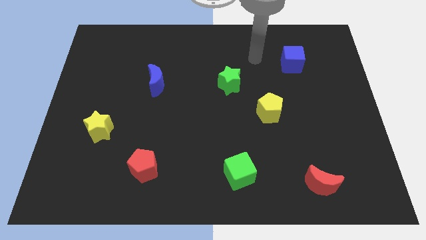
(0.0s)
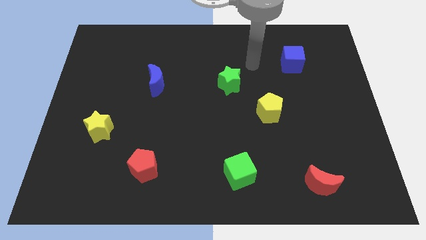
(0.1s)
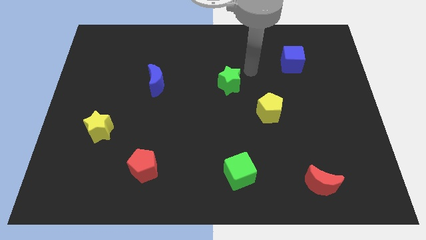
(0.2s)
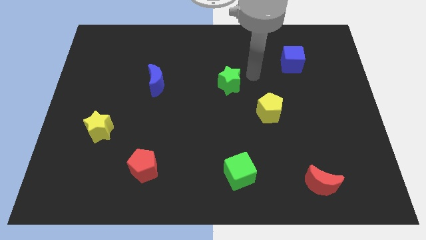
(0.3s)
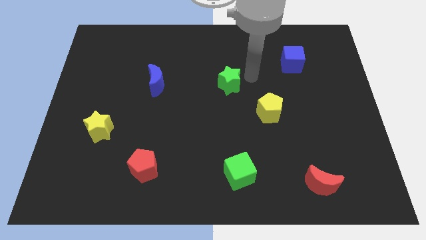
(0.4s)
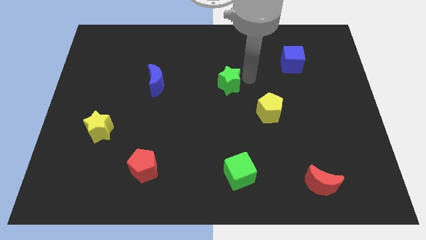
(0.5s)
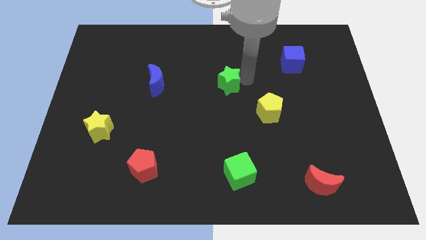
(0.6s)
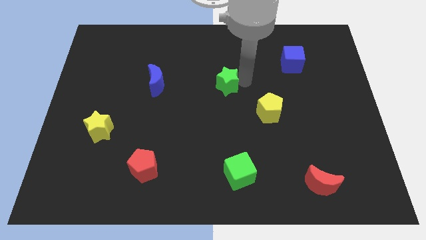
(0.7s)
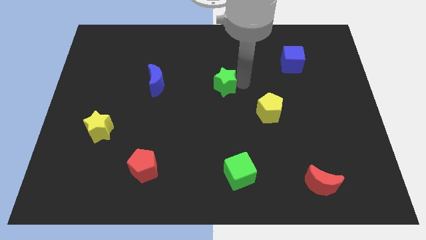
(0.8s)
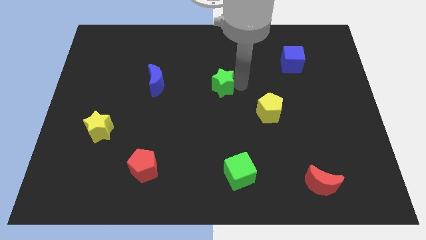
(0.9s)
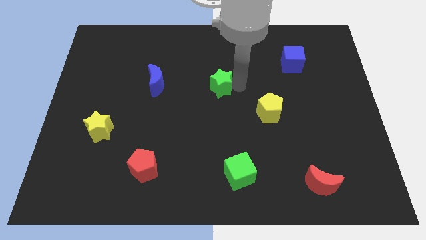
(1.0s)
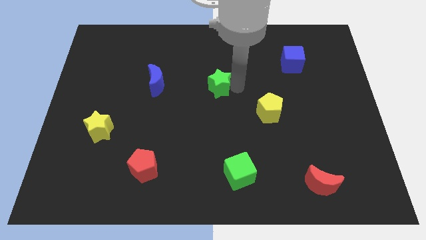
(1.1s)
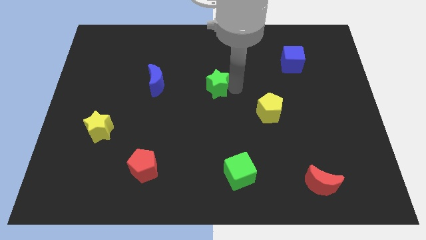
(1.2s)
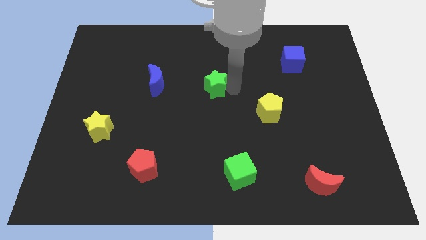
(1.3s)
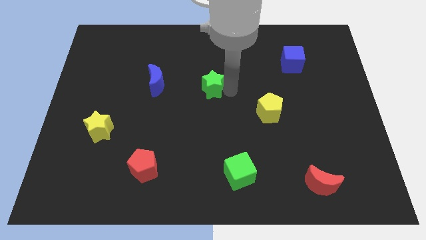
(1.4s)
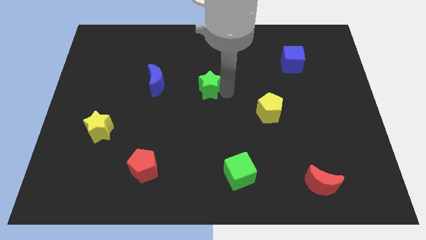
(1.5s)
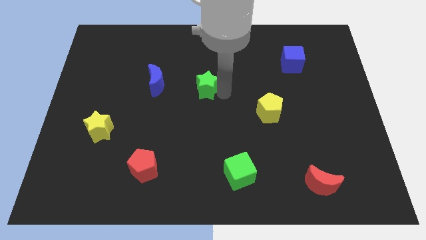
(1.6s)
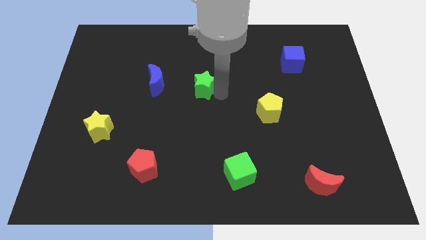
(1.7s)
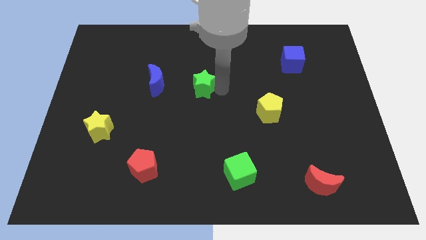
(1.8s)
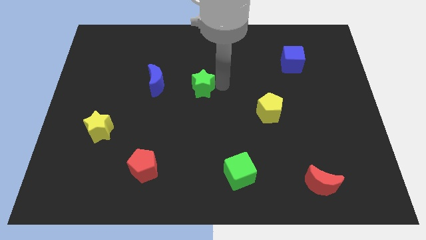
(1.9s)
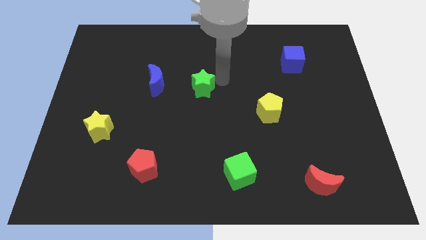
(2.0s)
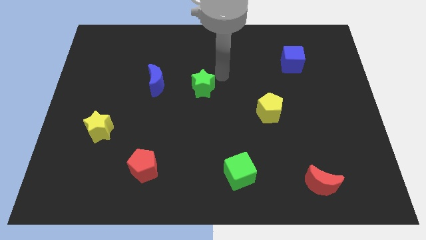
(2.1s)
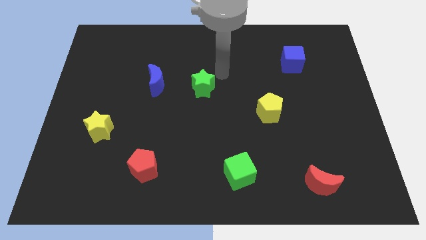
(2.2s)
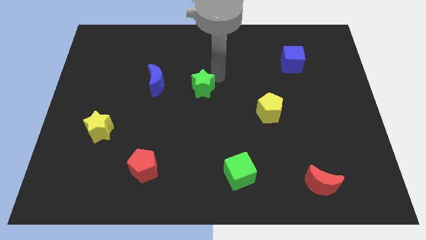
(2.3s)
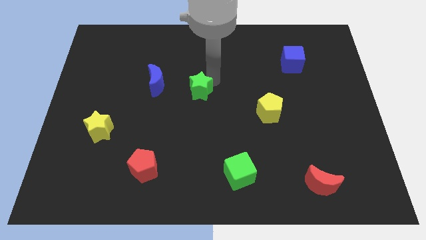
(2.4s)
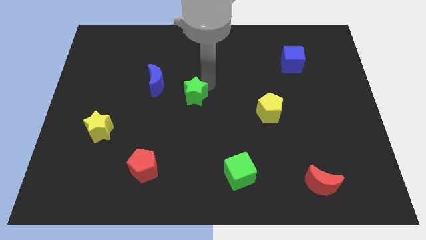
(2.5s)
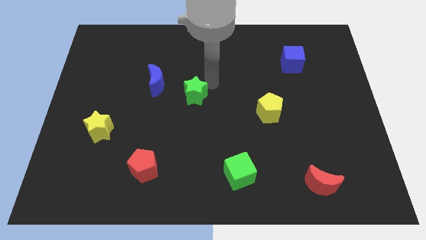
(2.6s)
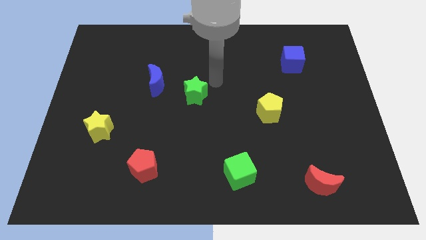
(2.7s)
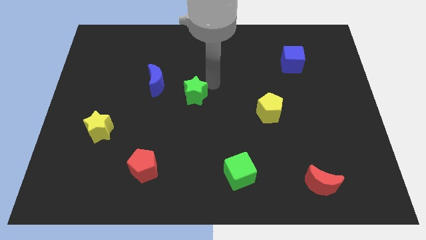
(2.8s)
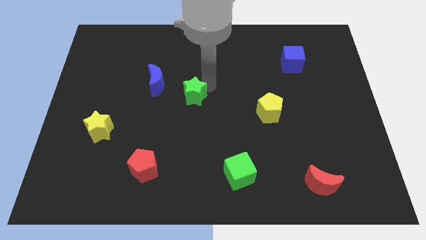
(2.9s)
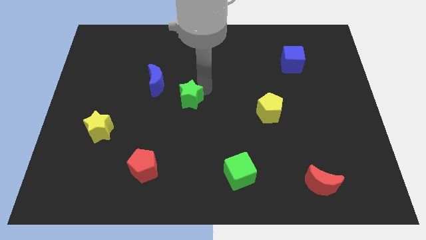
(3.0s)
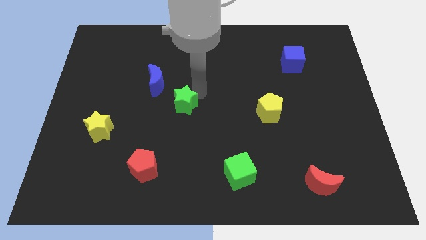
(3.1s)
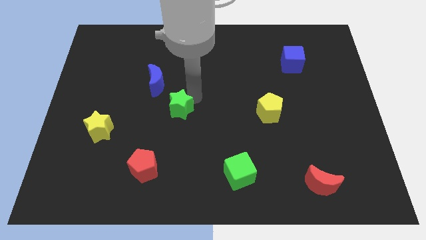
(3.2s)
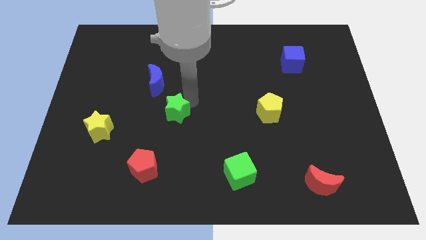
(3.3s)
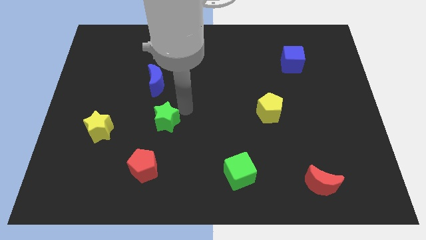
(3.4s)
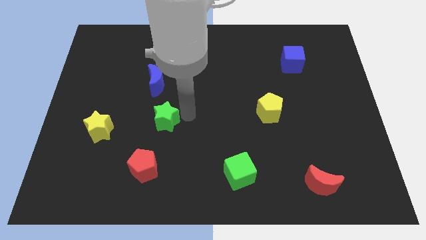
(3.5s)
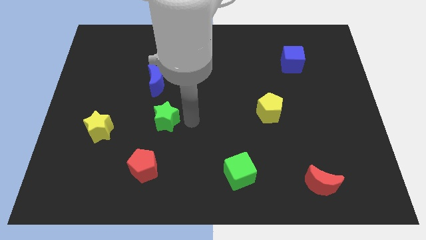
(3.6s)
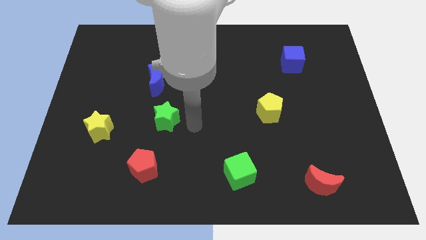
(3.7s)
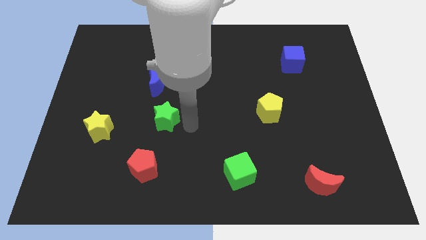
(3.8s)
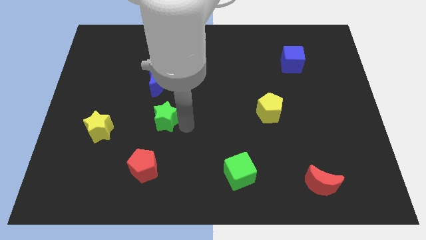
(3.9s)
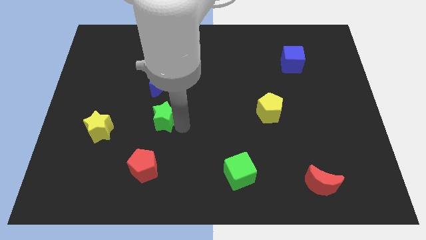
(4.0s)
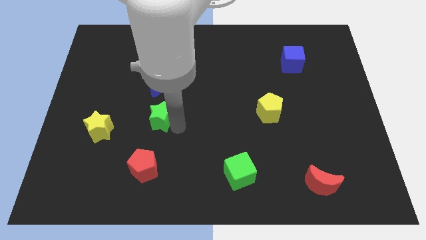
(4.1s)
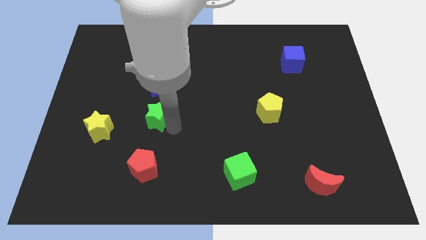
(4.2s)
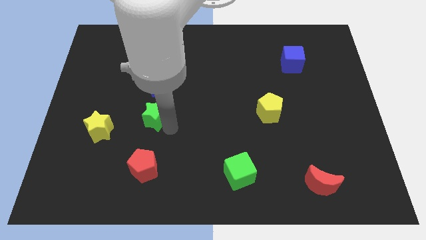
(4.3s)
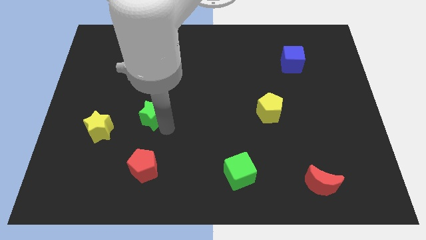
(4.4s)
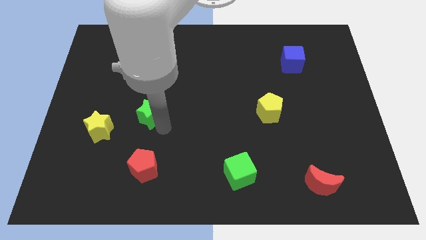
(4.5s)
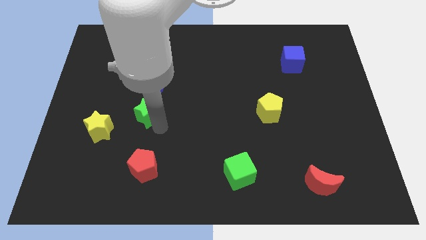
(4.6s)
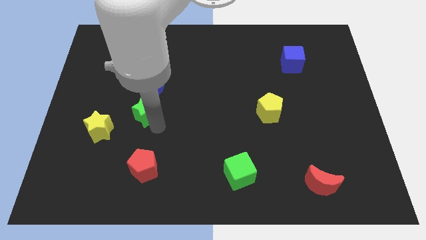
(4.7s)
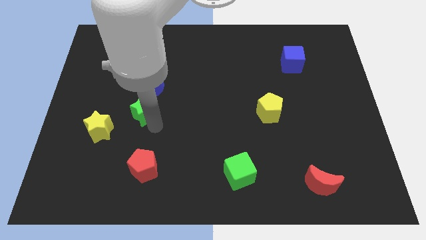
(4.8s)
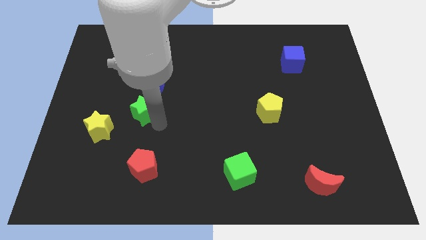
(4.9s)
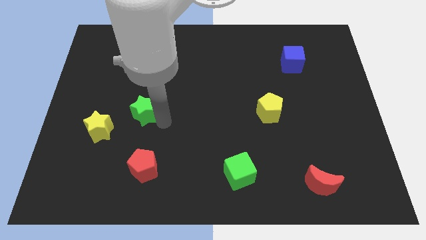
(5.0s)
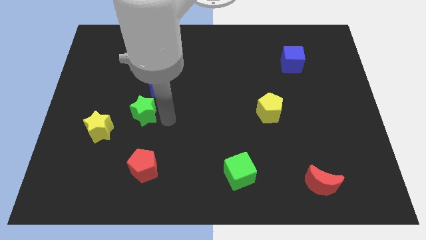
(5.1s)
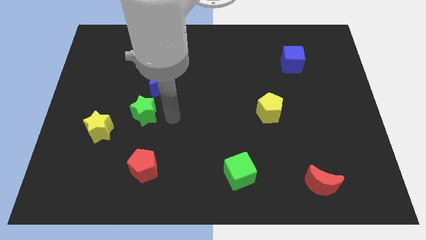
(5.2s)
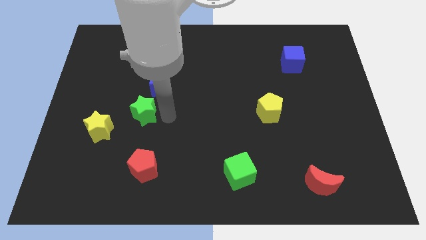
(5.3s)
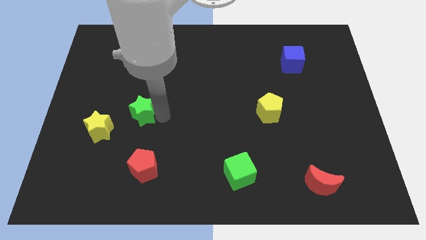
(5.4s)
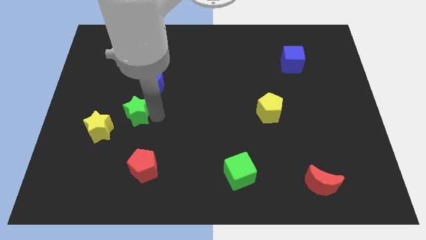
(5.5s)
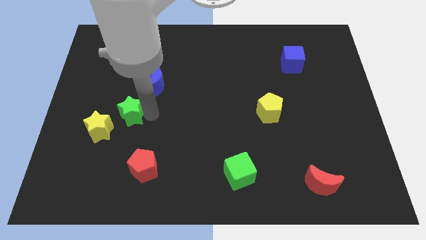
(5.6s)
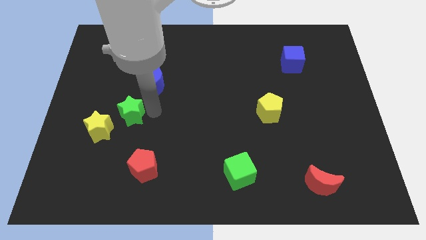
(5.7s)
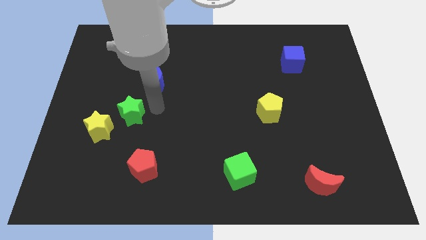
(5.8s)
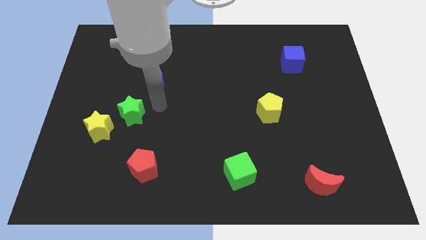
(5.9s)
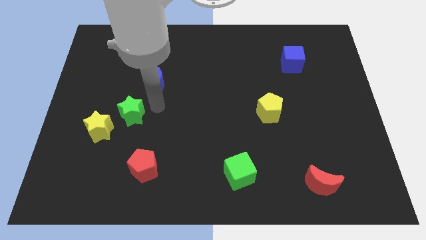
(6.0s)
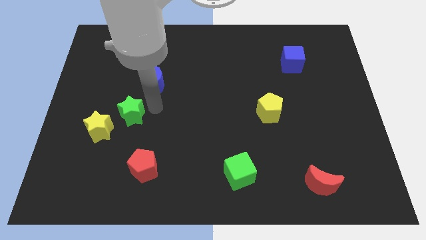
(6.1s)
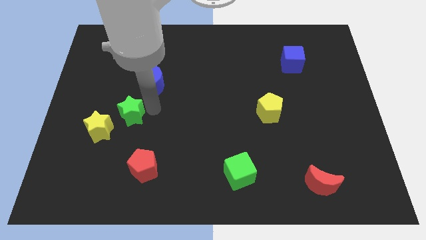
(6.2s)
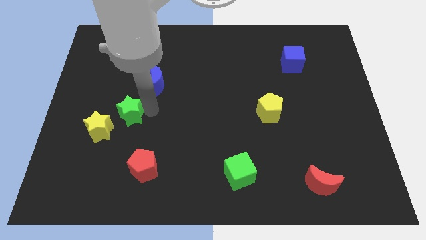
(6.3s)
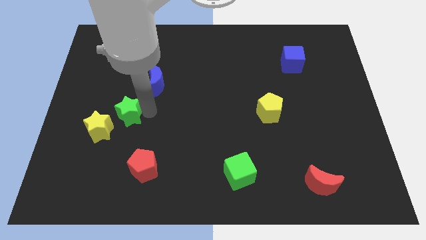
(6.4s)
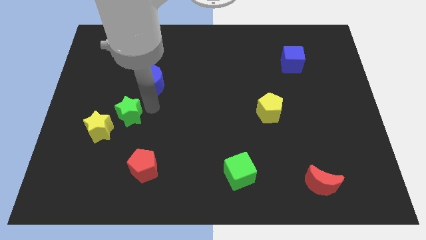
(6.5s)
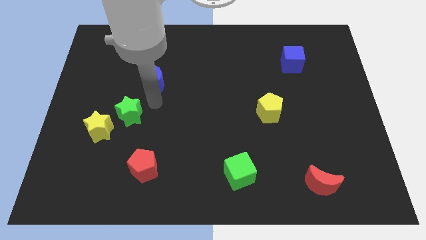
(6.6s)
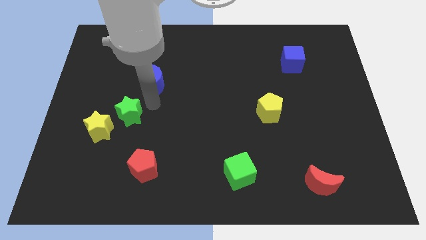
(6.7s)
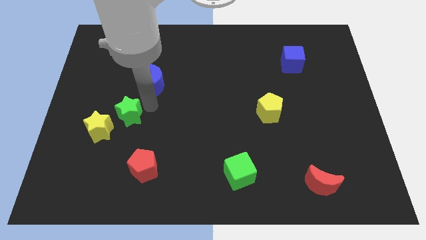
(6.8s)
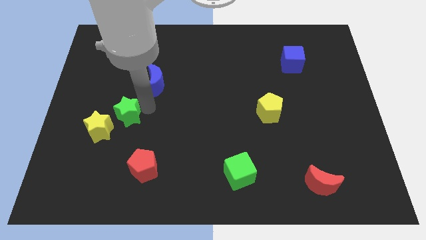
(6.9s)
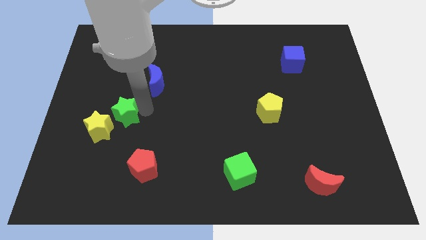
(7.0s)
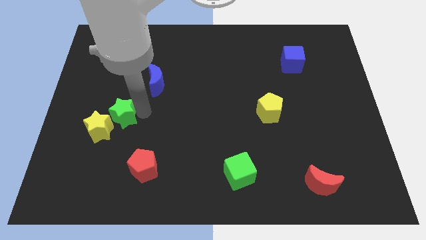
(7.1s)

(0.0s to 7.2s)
move the green star to the yellow star

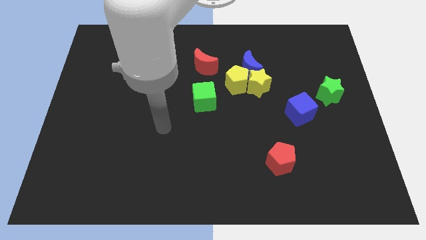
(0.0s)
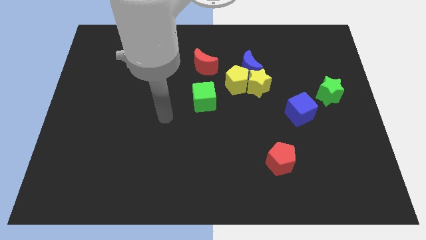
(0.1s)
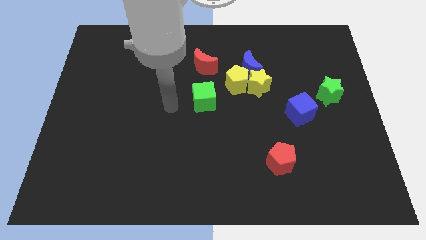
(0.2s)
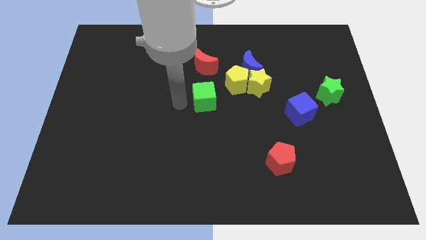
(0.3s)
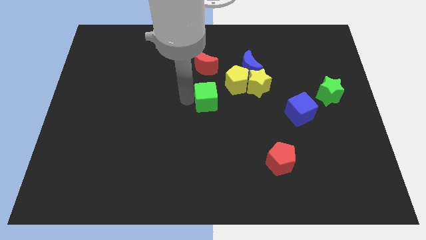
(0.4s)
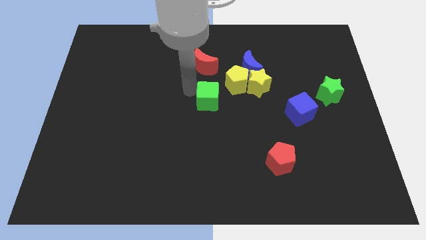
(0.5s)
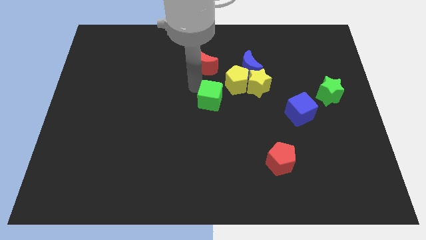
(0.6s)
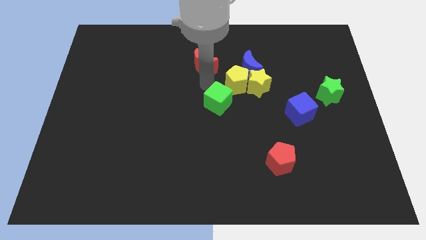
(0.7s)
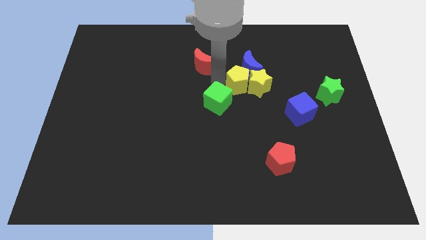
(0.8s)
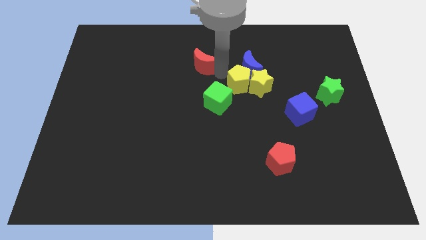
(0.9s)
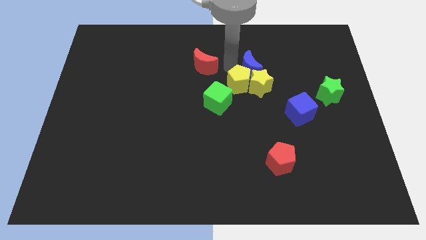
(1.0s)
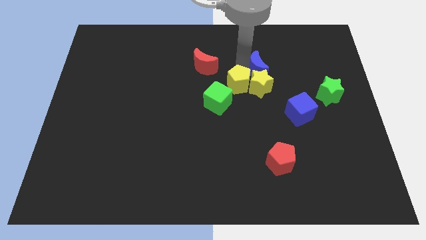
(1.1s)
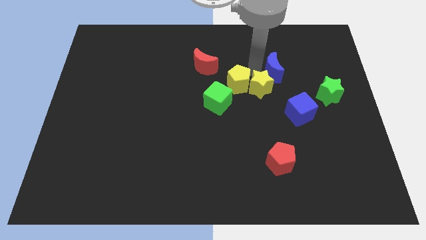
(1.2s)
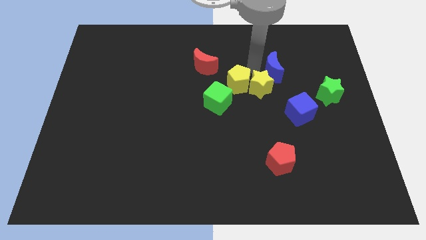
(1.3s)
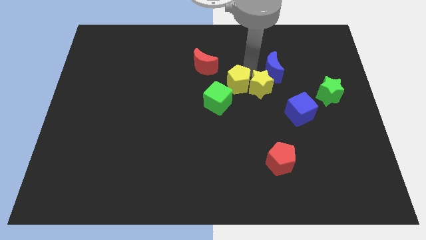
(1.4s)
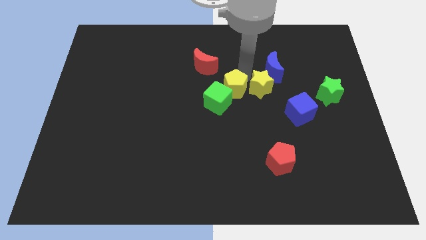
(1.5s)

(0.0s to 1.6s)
put the yellow pentagon next to the green cube
